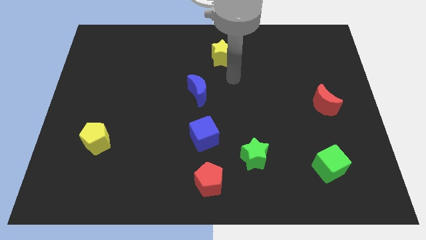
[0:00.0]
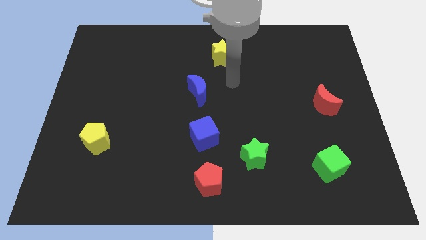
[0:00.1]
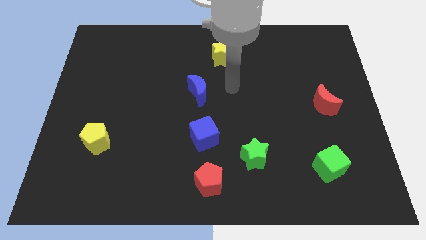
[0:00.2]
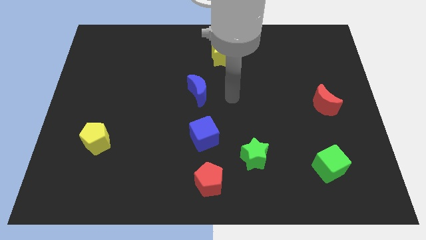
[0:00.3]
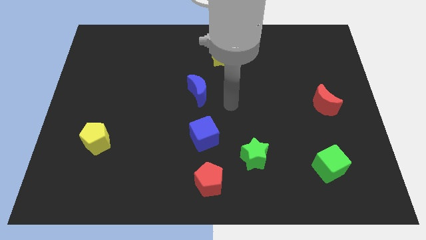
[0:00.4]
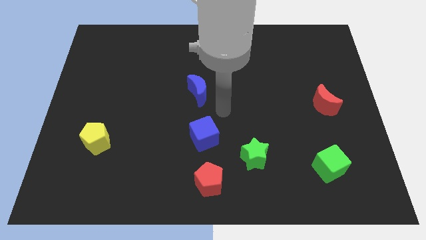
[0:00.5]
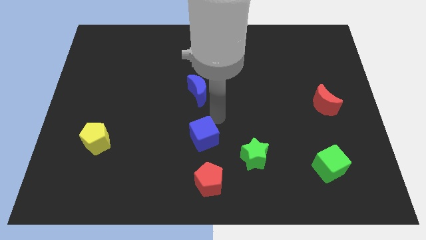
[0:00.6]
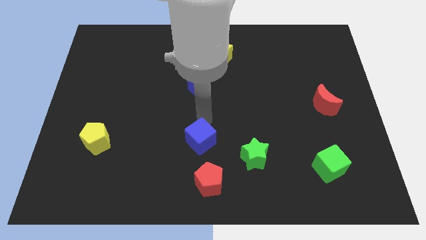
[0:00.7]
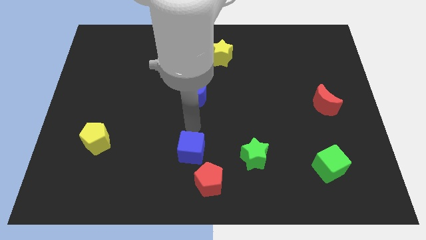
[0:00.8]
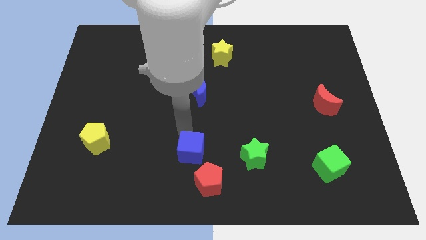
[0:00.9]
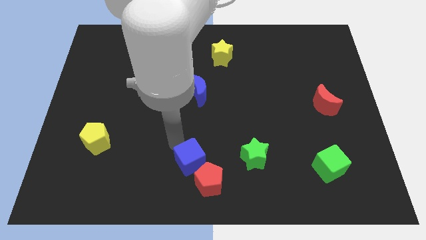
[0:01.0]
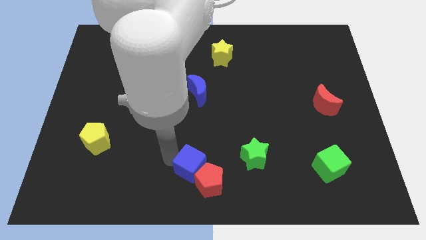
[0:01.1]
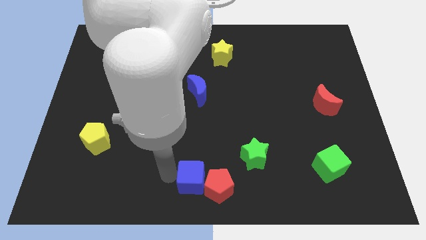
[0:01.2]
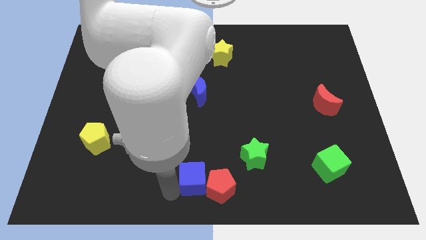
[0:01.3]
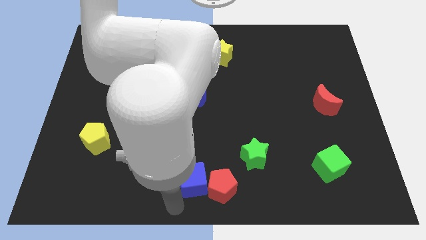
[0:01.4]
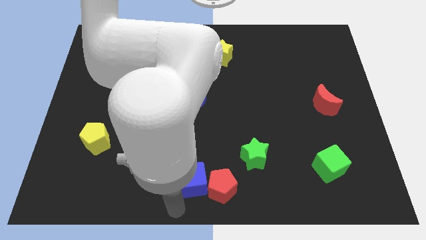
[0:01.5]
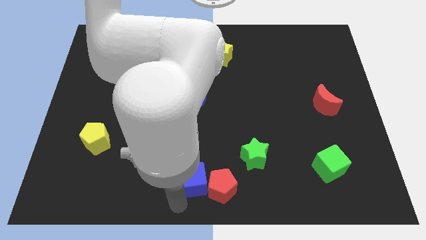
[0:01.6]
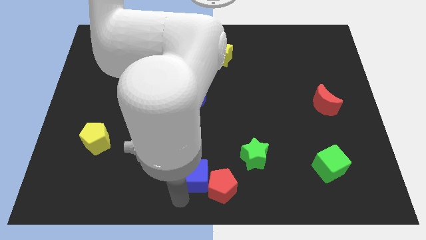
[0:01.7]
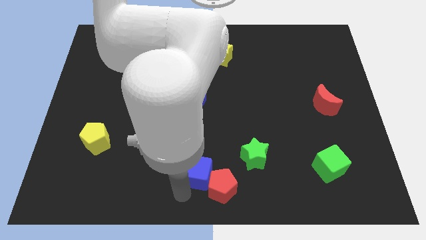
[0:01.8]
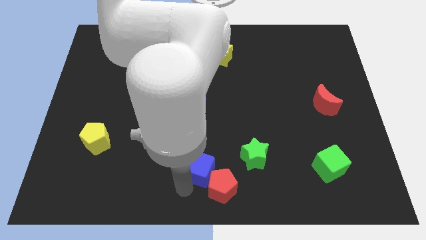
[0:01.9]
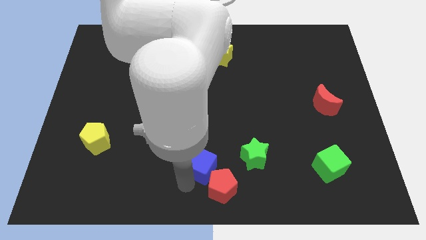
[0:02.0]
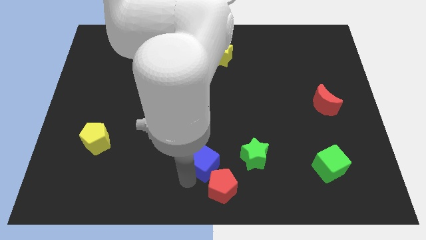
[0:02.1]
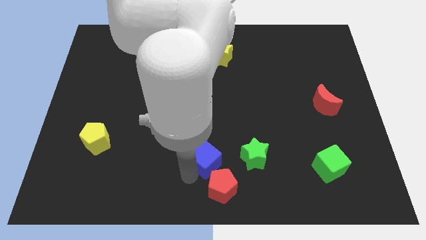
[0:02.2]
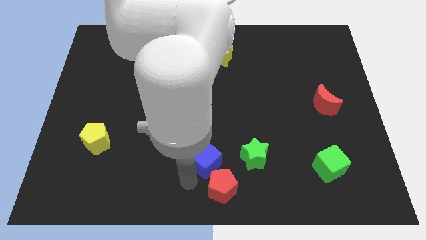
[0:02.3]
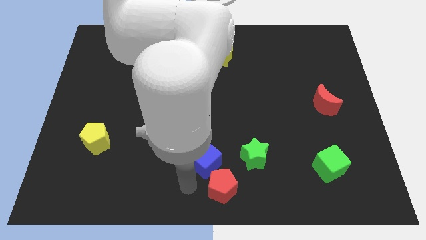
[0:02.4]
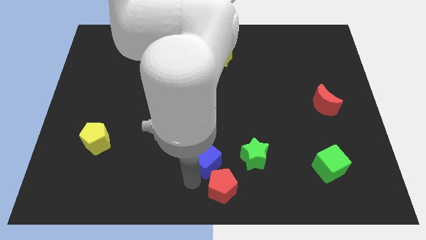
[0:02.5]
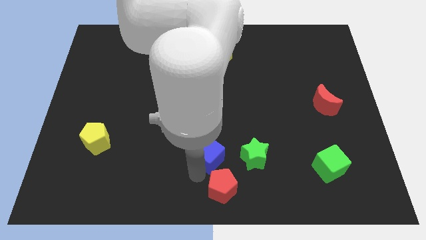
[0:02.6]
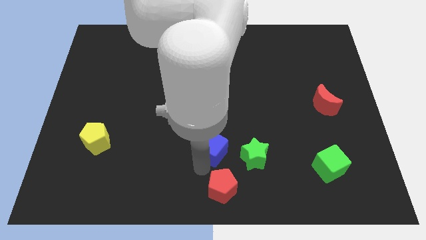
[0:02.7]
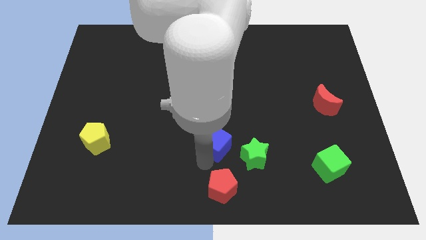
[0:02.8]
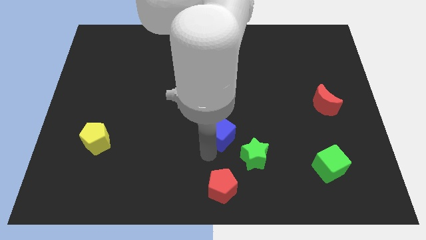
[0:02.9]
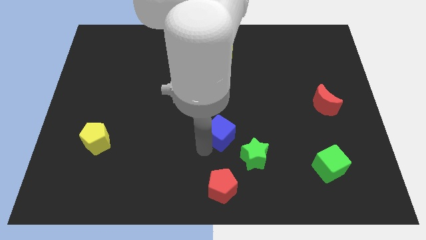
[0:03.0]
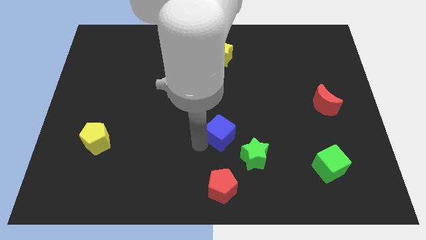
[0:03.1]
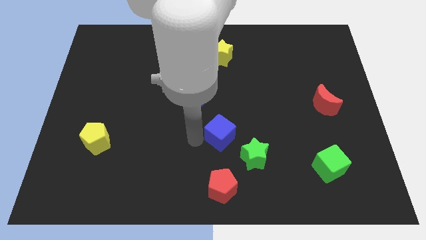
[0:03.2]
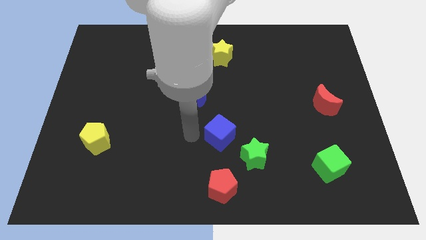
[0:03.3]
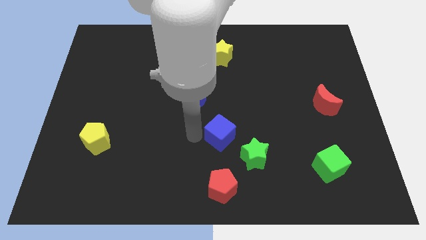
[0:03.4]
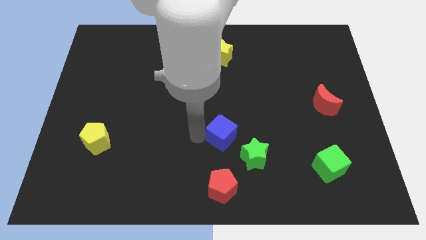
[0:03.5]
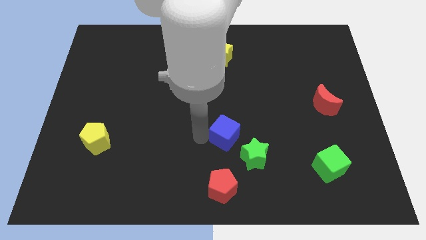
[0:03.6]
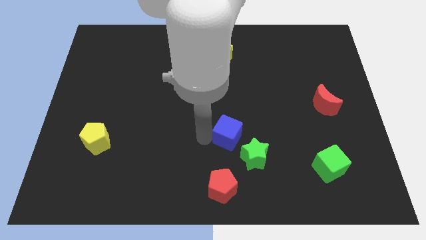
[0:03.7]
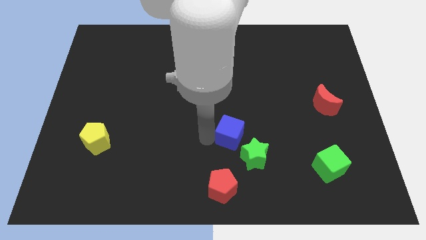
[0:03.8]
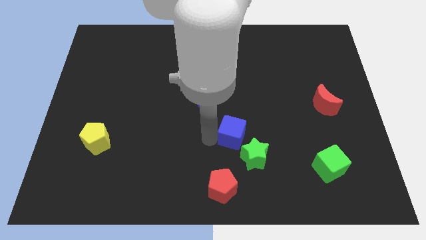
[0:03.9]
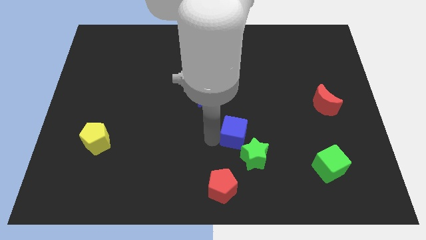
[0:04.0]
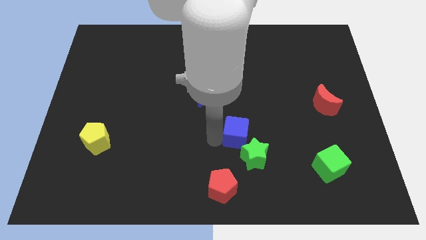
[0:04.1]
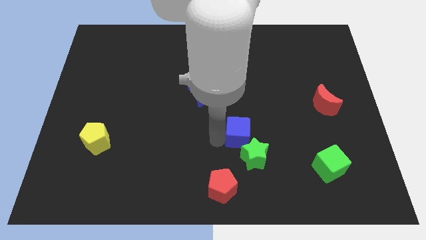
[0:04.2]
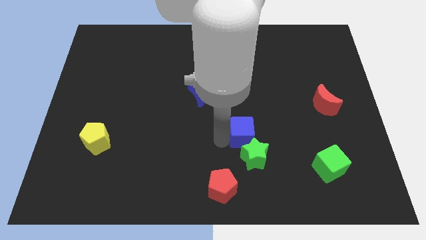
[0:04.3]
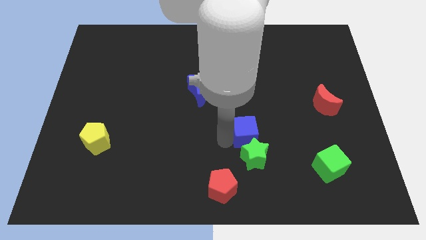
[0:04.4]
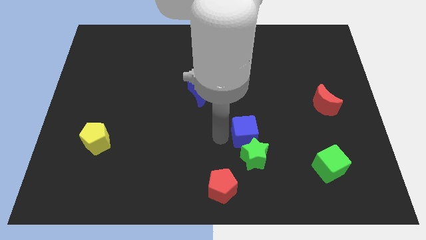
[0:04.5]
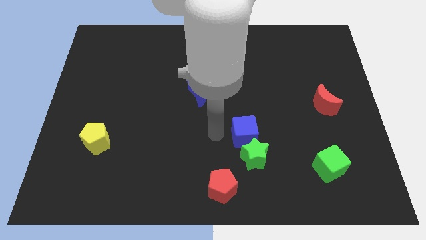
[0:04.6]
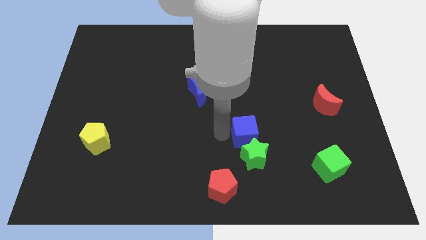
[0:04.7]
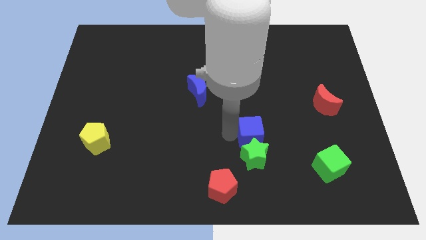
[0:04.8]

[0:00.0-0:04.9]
put the blue cube to the top right of the green star

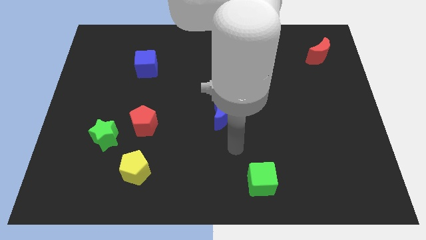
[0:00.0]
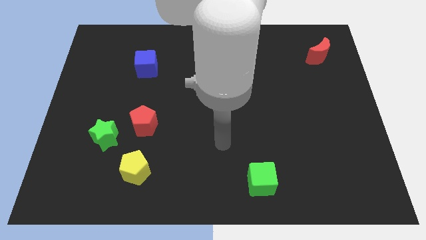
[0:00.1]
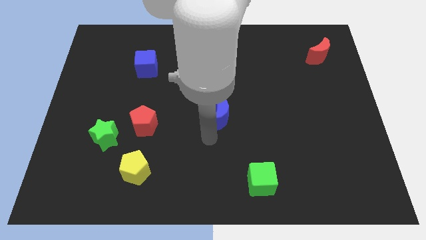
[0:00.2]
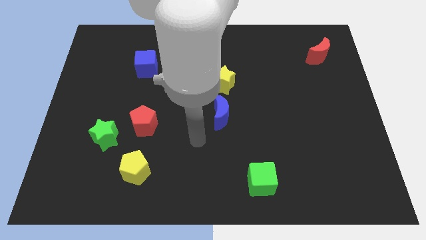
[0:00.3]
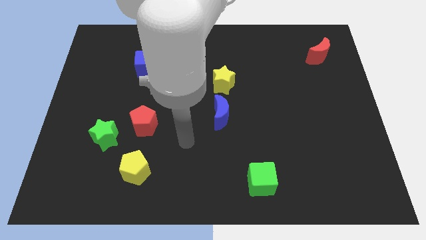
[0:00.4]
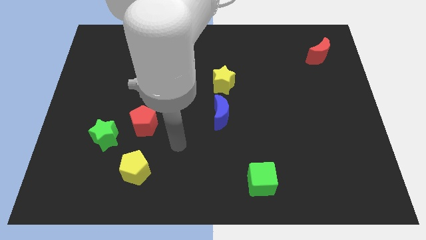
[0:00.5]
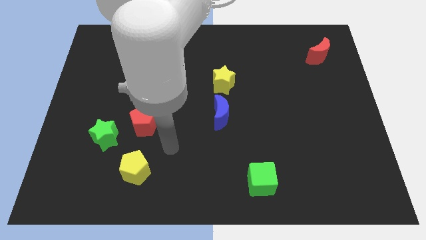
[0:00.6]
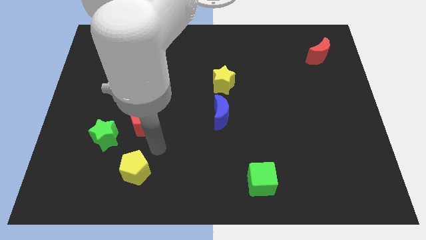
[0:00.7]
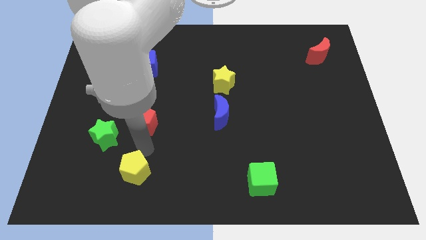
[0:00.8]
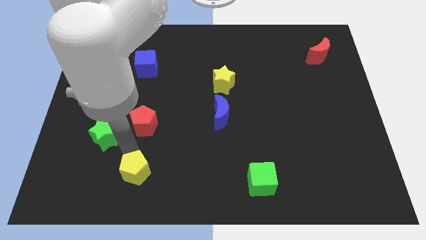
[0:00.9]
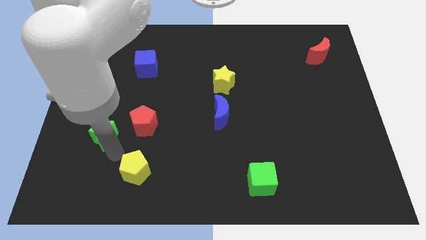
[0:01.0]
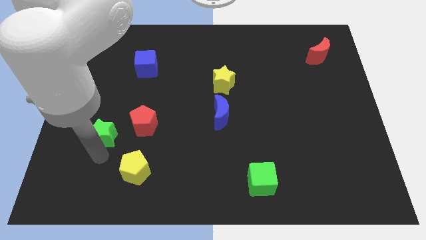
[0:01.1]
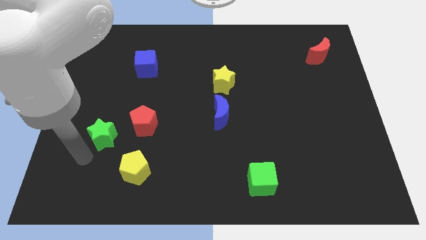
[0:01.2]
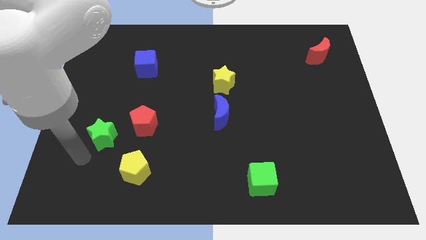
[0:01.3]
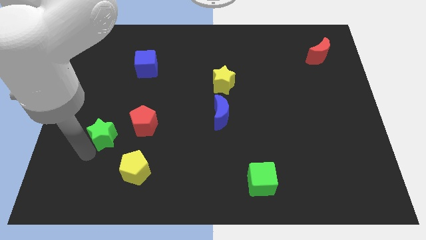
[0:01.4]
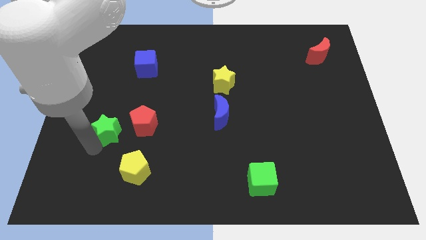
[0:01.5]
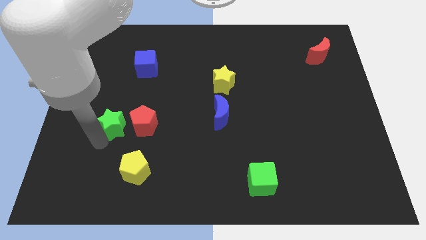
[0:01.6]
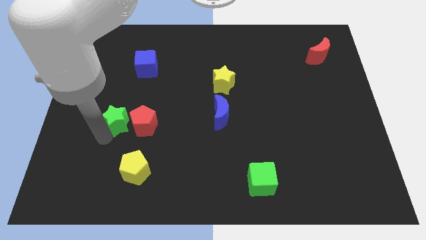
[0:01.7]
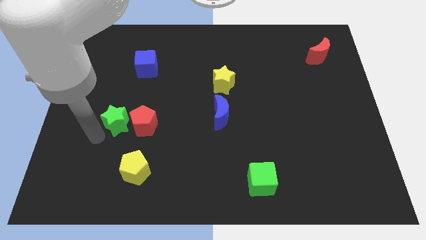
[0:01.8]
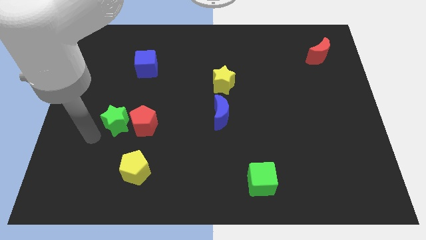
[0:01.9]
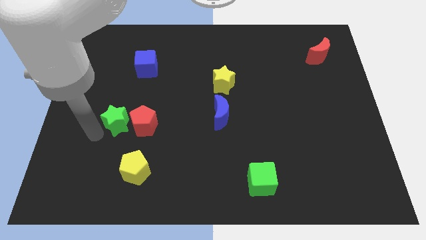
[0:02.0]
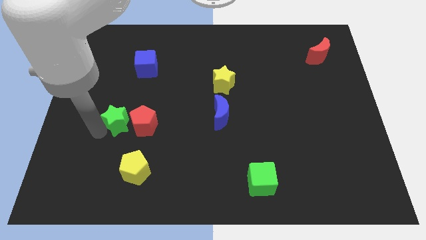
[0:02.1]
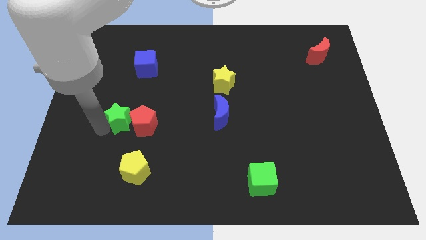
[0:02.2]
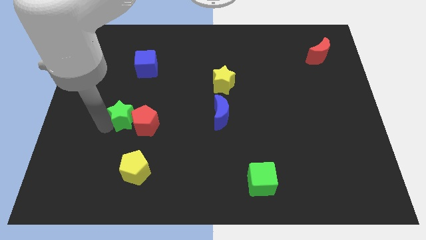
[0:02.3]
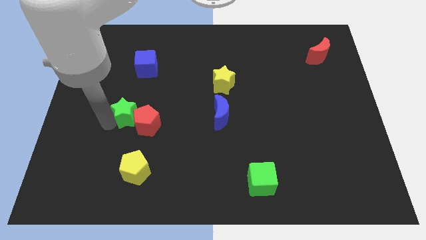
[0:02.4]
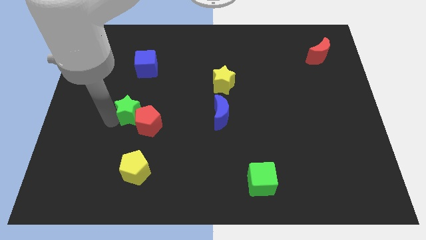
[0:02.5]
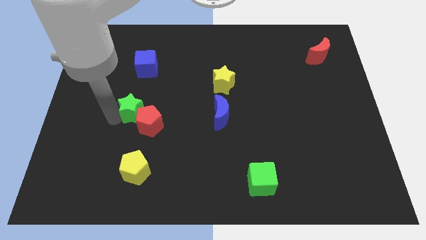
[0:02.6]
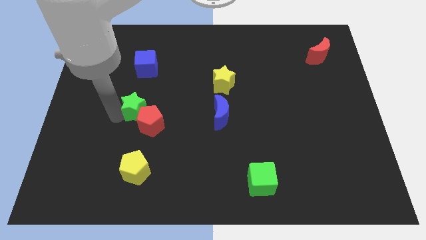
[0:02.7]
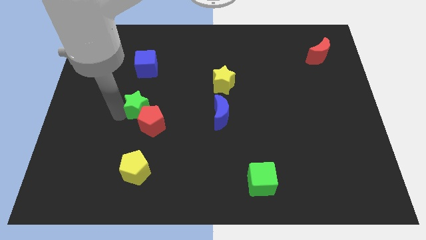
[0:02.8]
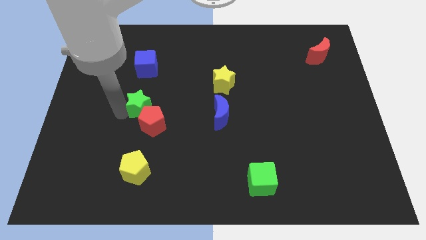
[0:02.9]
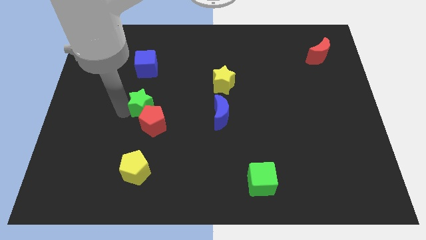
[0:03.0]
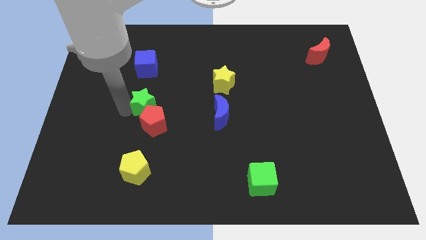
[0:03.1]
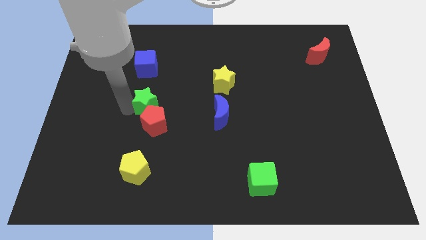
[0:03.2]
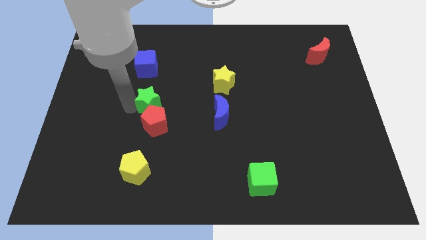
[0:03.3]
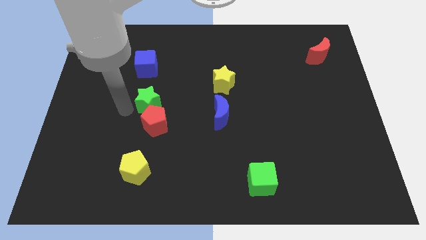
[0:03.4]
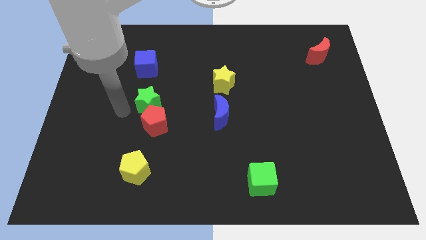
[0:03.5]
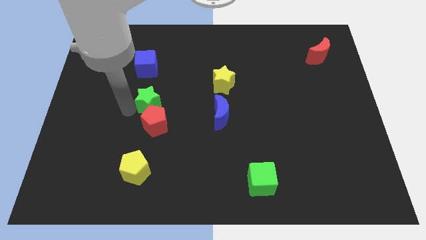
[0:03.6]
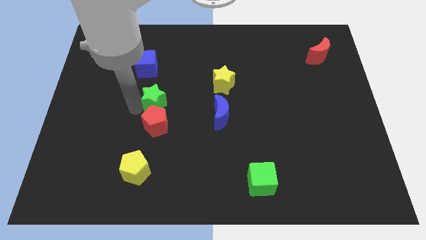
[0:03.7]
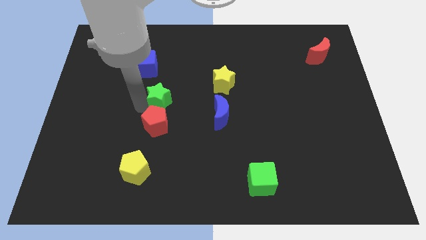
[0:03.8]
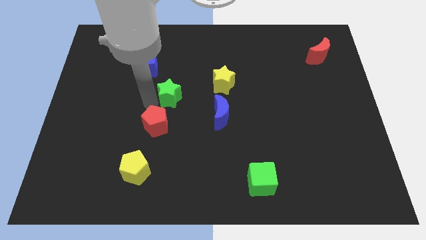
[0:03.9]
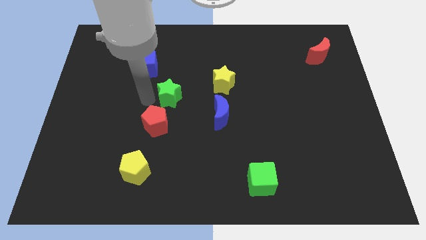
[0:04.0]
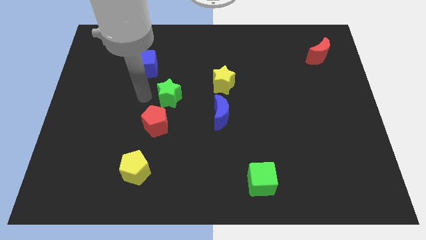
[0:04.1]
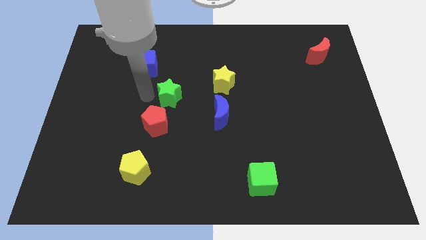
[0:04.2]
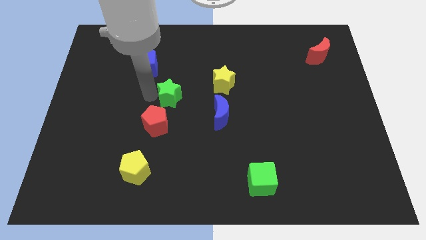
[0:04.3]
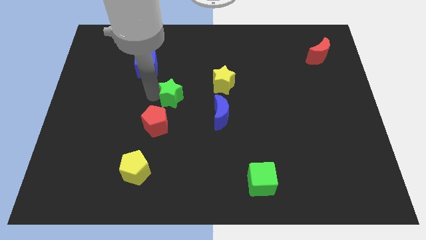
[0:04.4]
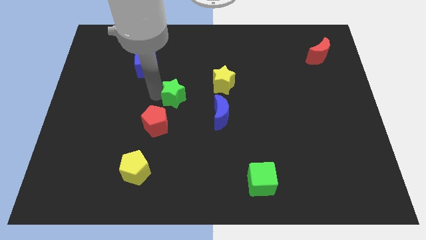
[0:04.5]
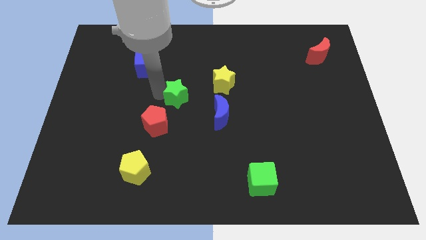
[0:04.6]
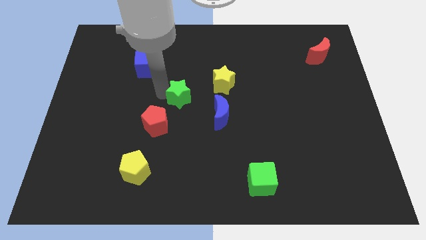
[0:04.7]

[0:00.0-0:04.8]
put the green star diagonally down and to the left of the yellow star
